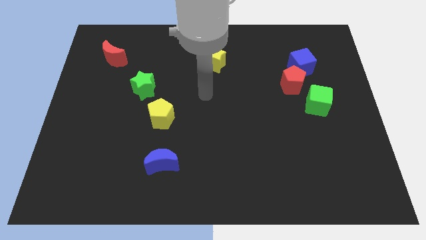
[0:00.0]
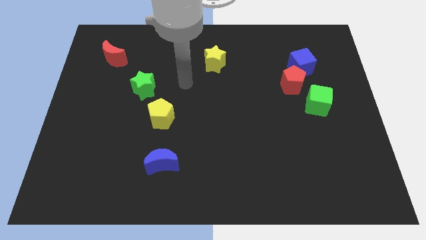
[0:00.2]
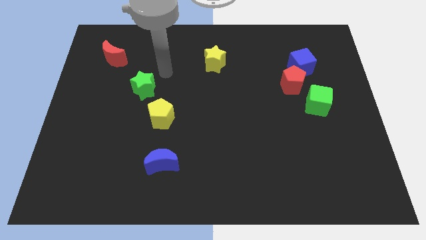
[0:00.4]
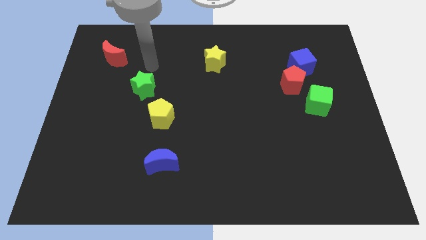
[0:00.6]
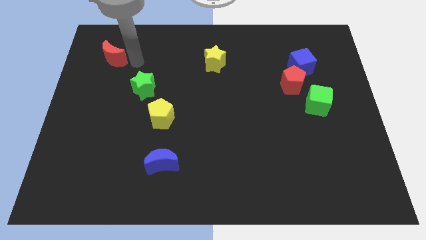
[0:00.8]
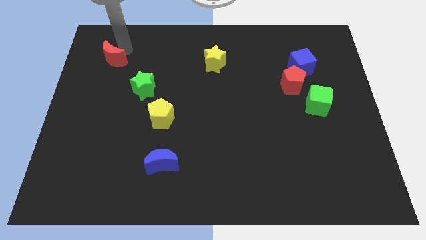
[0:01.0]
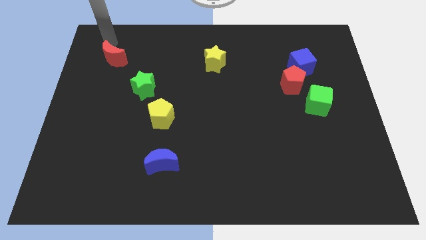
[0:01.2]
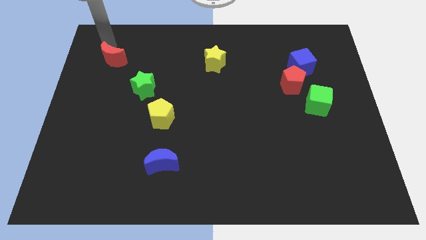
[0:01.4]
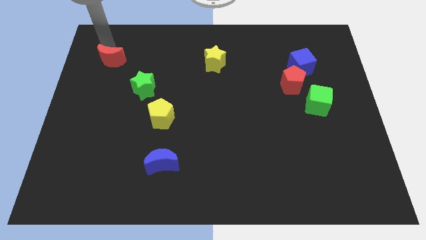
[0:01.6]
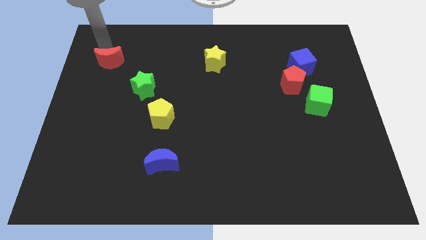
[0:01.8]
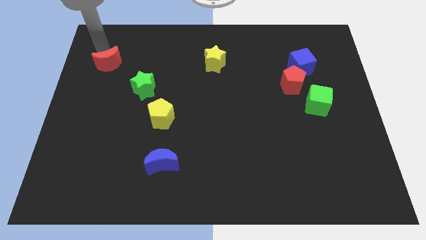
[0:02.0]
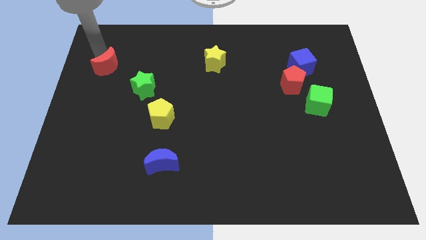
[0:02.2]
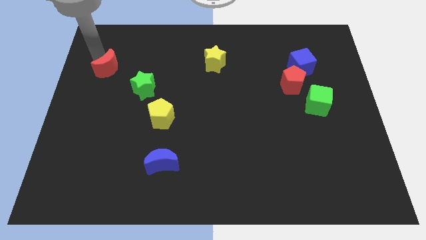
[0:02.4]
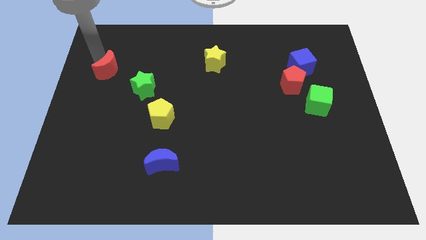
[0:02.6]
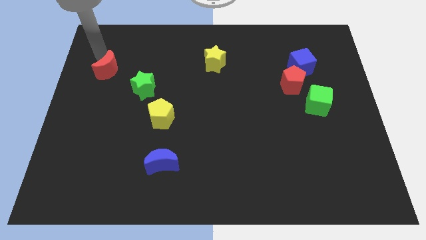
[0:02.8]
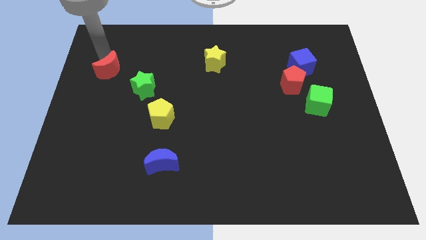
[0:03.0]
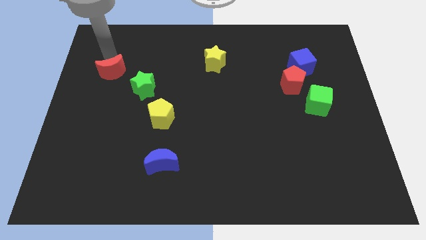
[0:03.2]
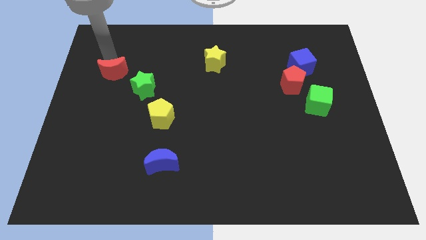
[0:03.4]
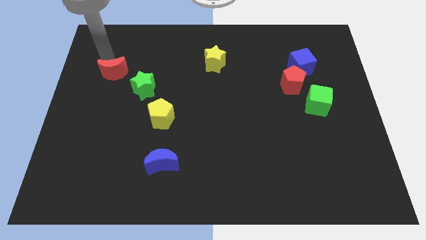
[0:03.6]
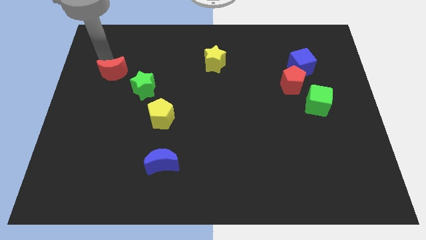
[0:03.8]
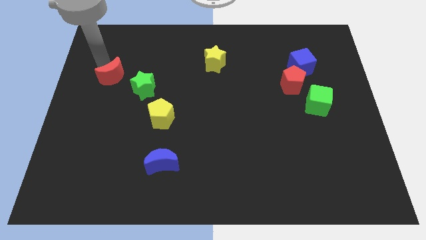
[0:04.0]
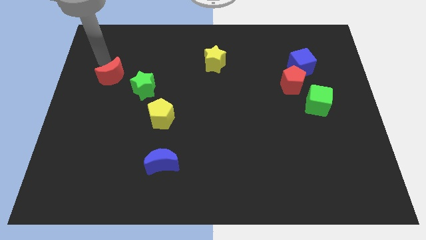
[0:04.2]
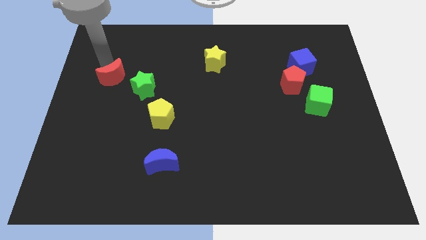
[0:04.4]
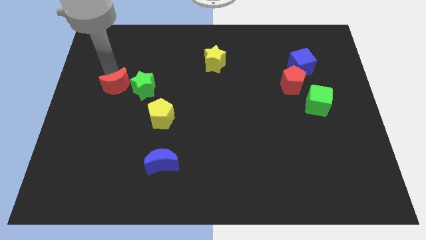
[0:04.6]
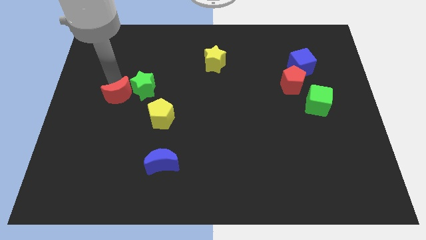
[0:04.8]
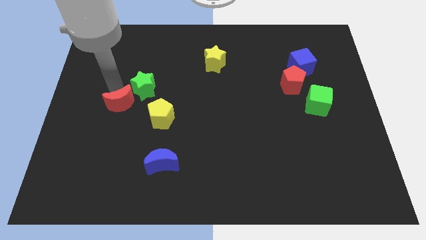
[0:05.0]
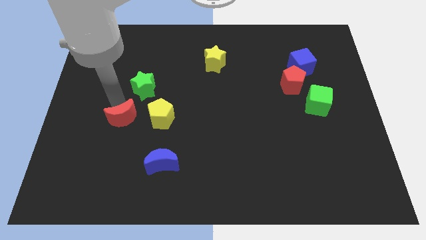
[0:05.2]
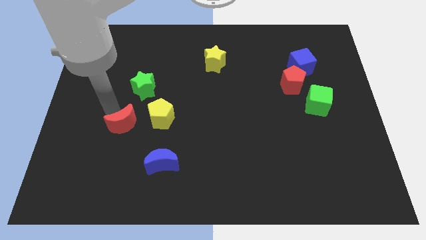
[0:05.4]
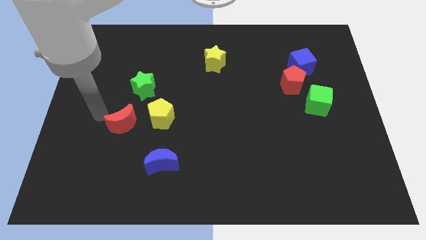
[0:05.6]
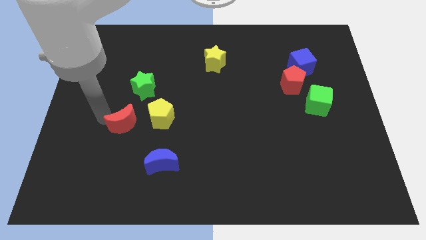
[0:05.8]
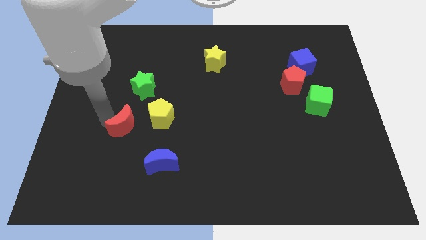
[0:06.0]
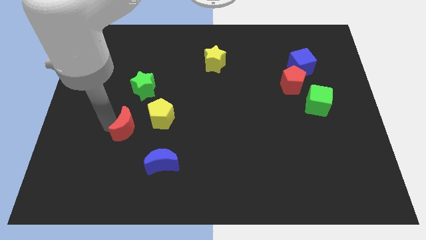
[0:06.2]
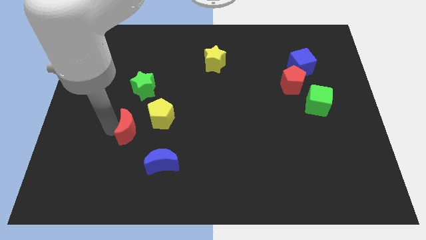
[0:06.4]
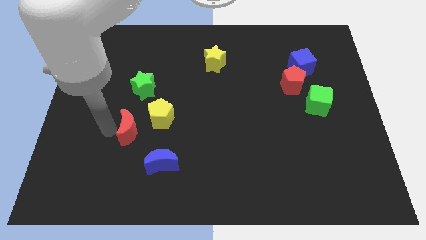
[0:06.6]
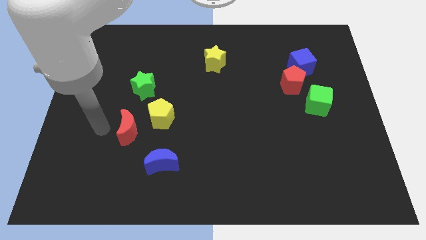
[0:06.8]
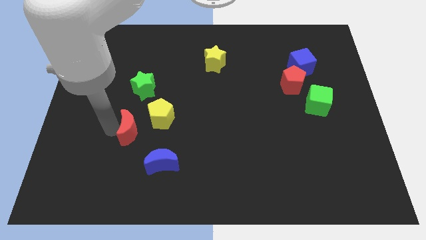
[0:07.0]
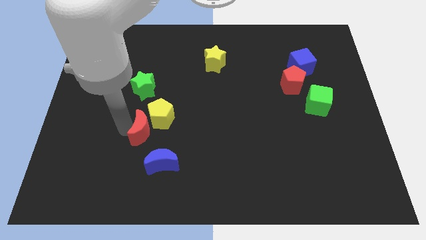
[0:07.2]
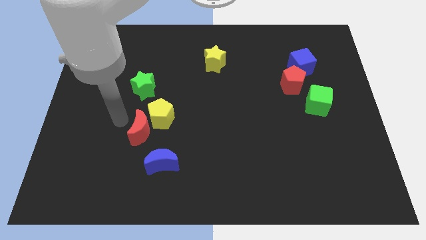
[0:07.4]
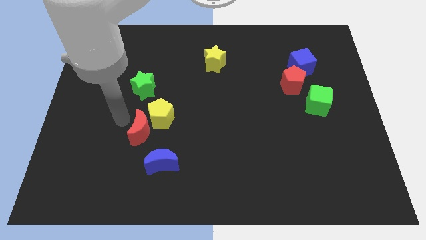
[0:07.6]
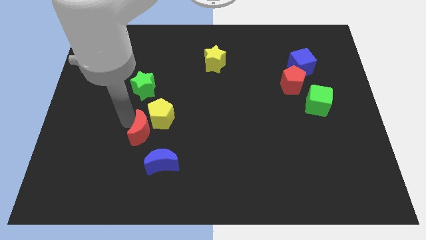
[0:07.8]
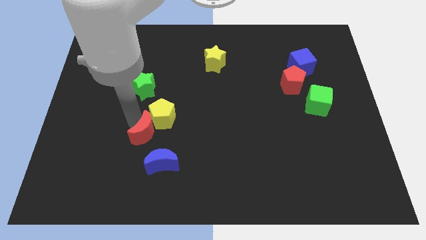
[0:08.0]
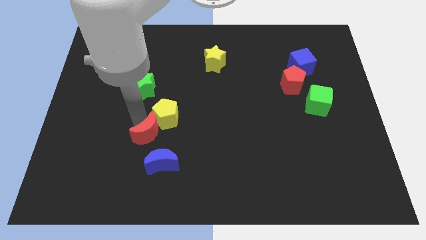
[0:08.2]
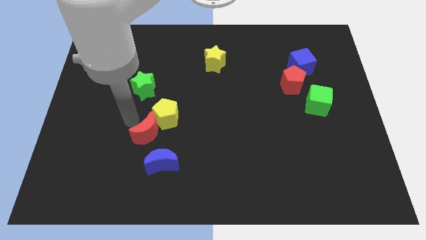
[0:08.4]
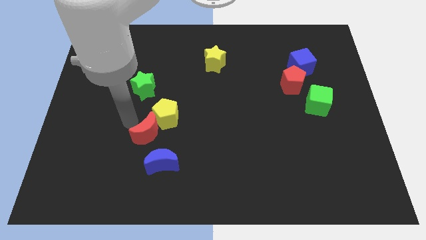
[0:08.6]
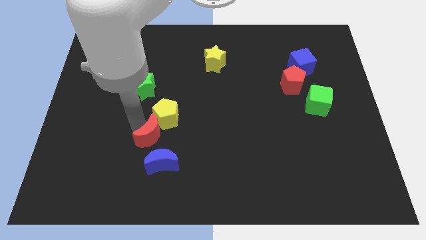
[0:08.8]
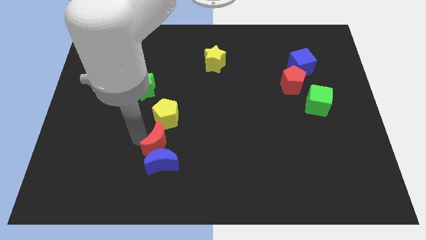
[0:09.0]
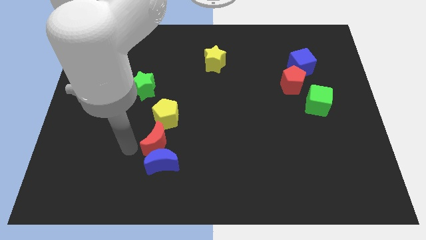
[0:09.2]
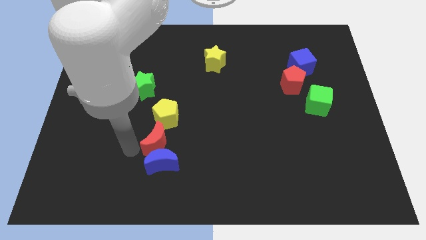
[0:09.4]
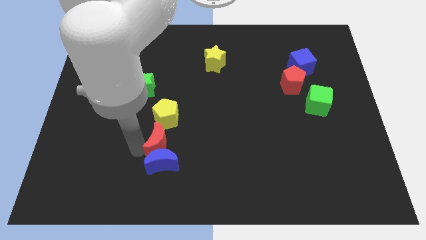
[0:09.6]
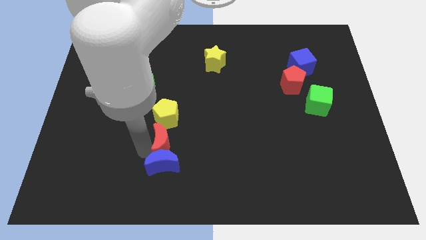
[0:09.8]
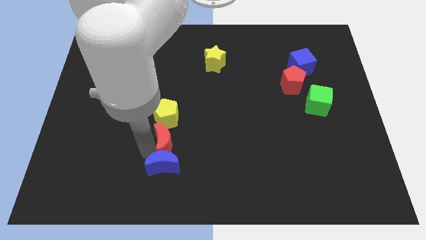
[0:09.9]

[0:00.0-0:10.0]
put the red moon to the bottom right of the yellow pentagon

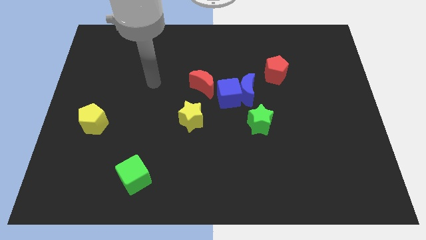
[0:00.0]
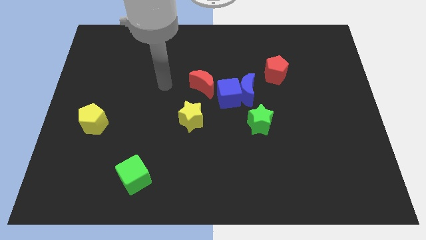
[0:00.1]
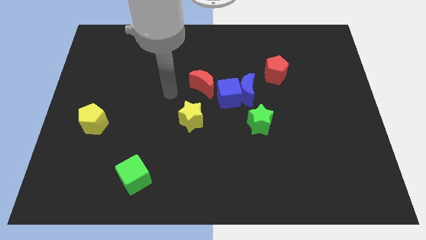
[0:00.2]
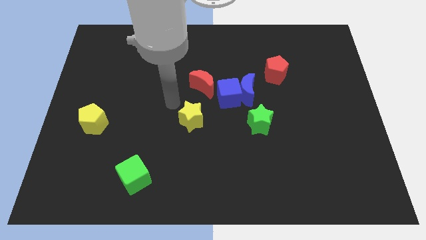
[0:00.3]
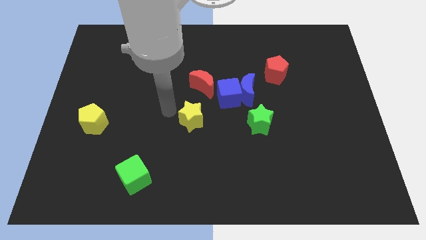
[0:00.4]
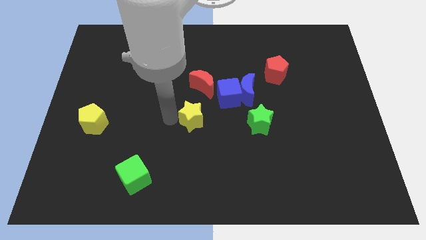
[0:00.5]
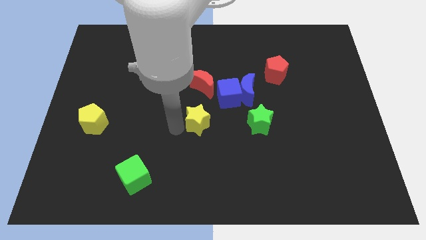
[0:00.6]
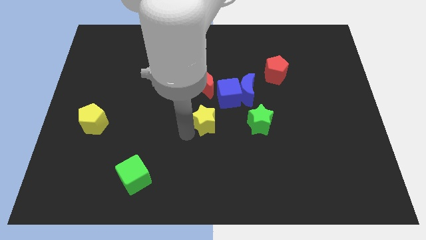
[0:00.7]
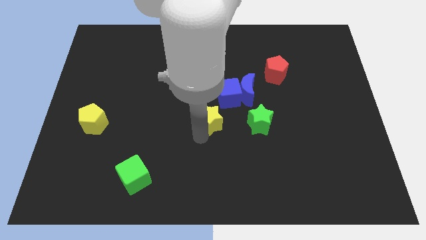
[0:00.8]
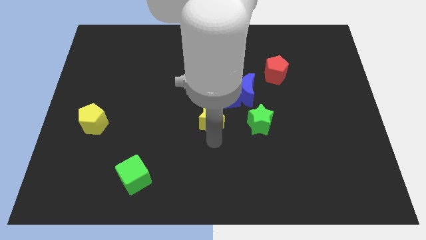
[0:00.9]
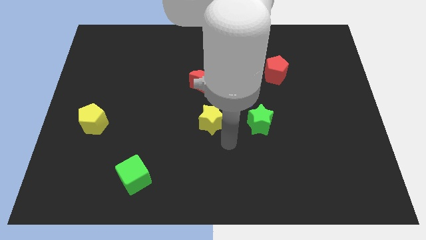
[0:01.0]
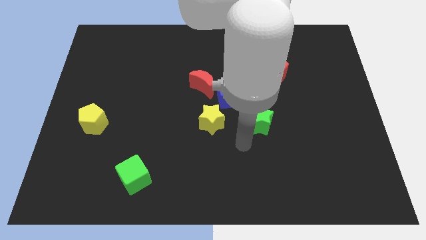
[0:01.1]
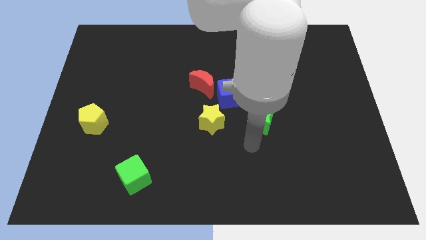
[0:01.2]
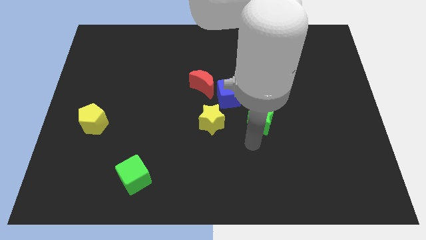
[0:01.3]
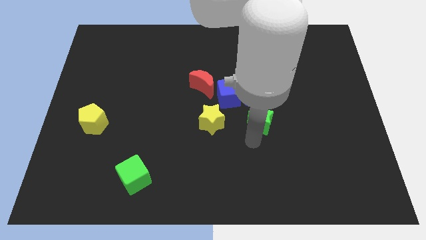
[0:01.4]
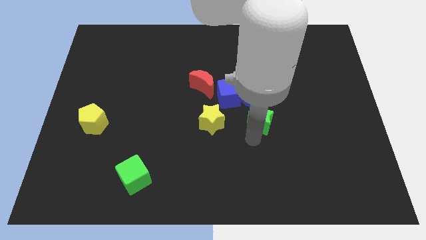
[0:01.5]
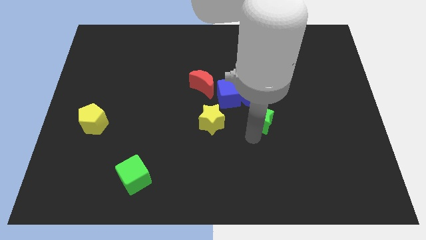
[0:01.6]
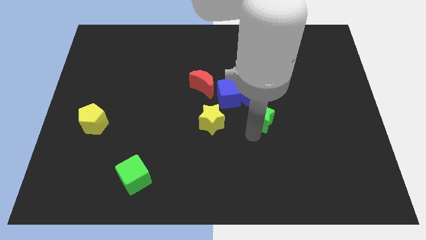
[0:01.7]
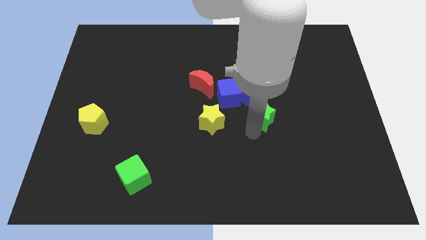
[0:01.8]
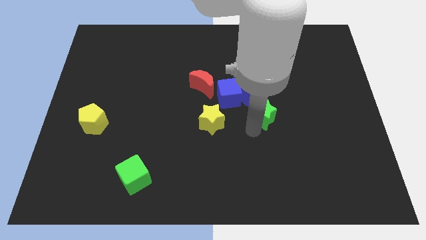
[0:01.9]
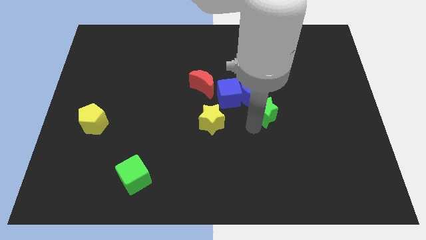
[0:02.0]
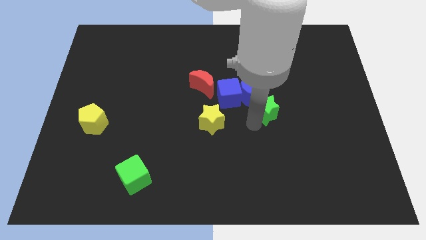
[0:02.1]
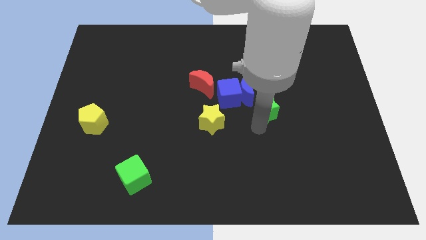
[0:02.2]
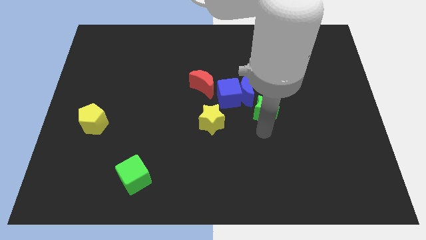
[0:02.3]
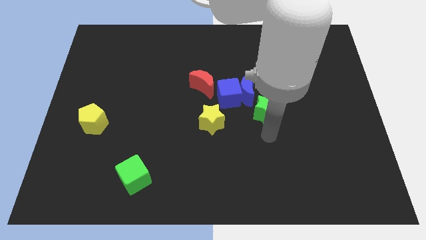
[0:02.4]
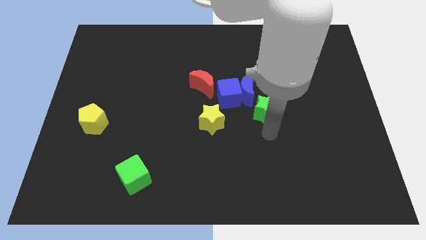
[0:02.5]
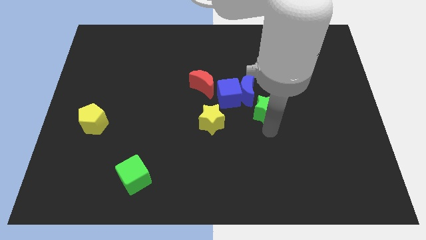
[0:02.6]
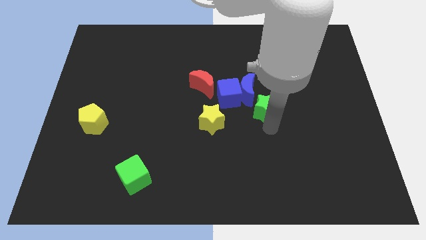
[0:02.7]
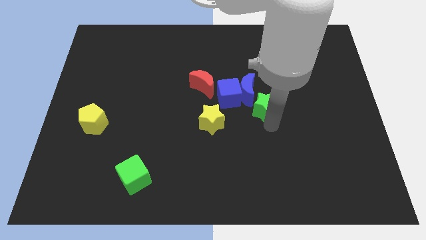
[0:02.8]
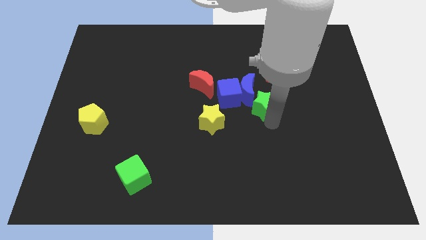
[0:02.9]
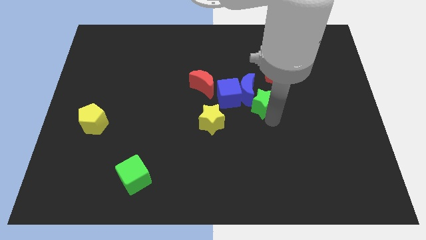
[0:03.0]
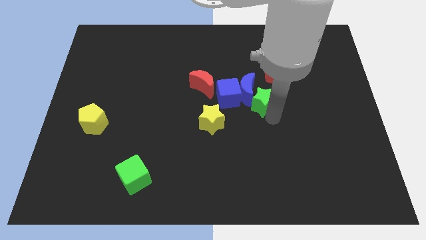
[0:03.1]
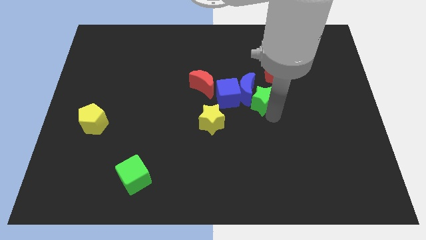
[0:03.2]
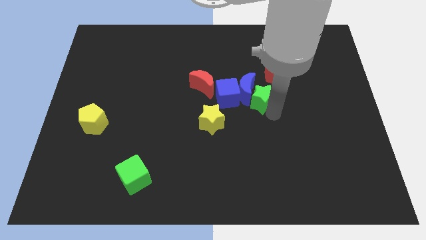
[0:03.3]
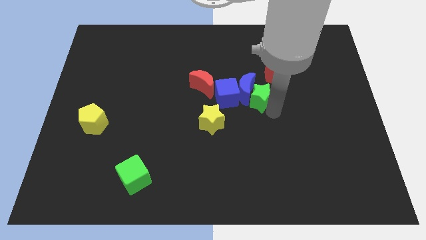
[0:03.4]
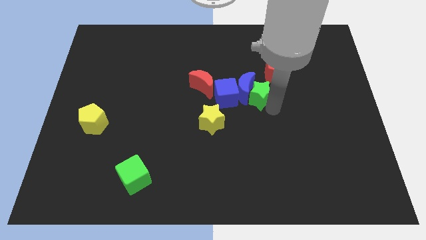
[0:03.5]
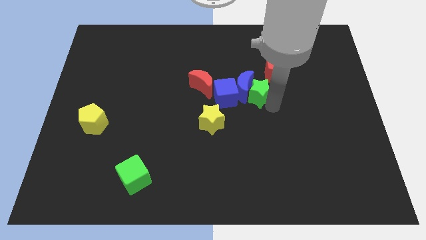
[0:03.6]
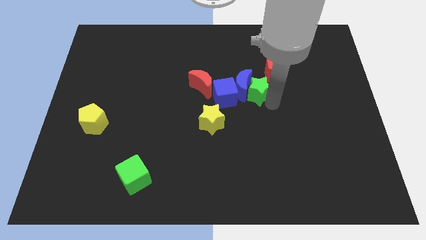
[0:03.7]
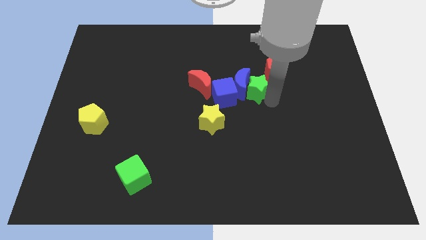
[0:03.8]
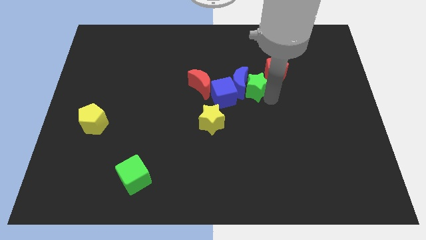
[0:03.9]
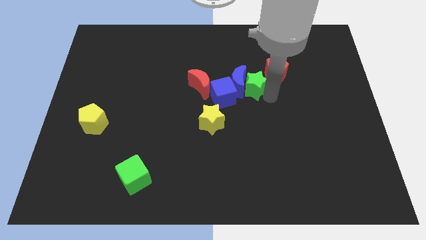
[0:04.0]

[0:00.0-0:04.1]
put the green star to the left of the red pentagon
